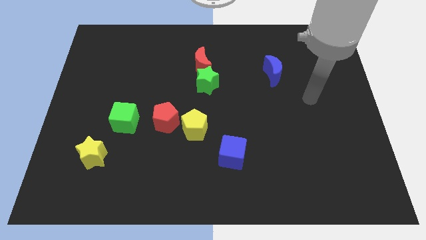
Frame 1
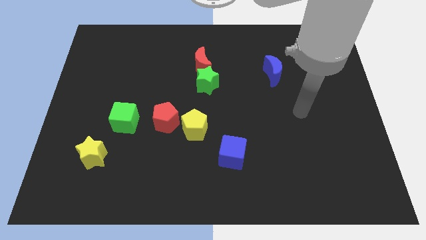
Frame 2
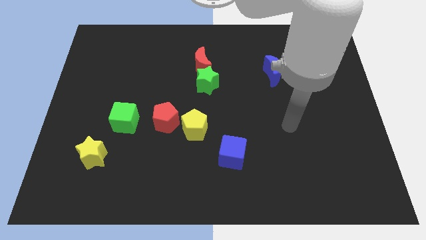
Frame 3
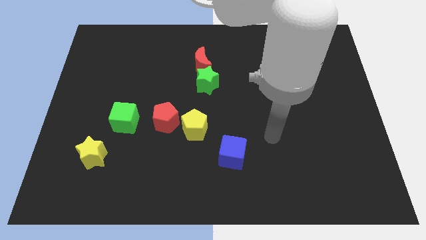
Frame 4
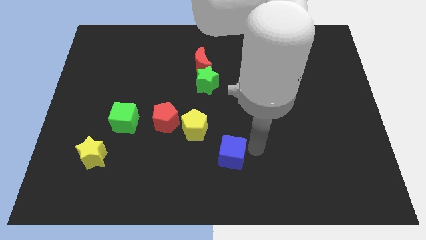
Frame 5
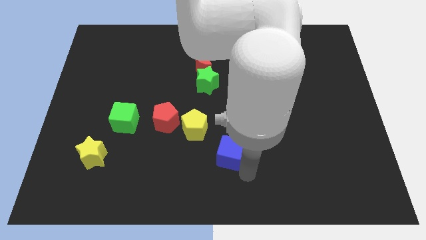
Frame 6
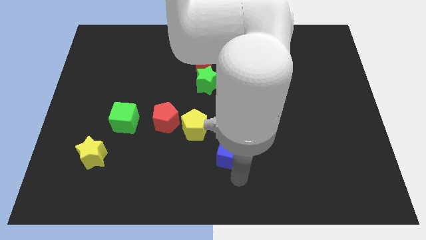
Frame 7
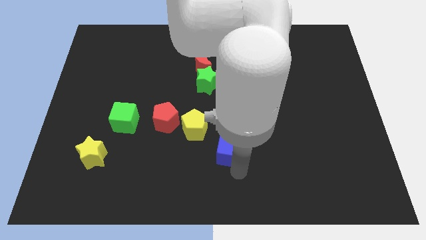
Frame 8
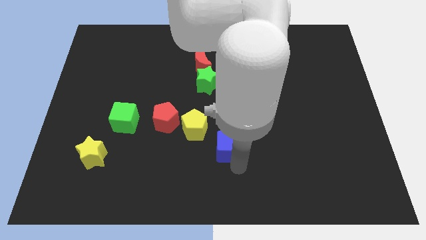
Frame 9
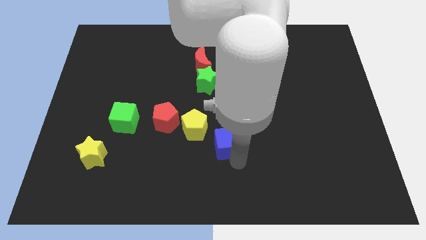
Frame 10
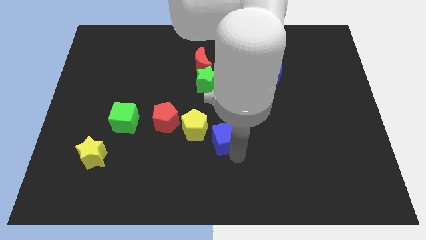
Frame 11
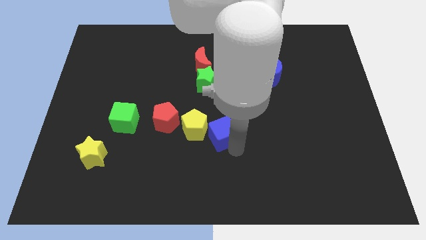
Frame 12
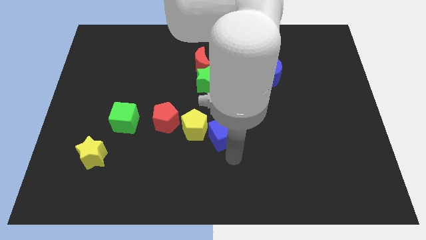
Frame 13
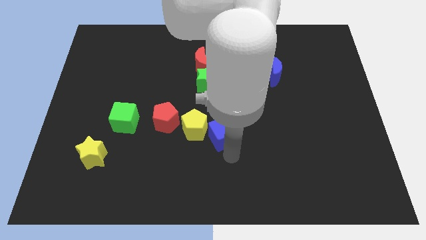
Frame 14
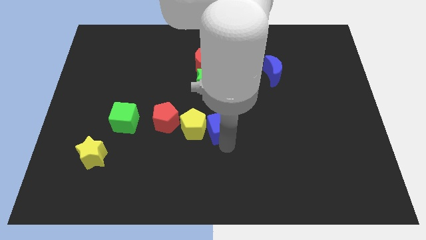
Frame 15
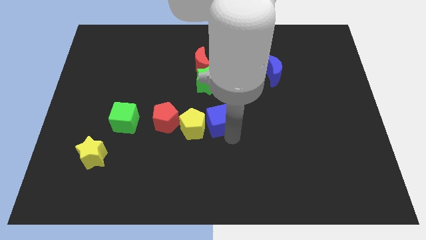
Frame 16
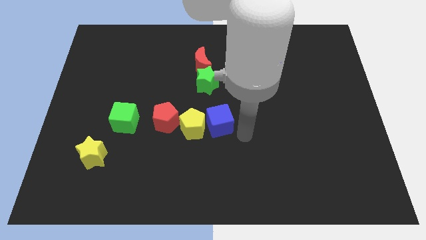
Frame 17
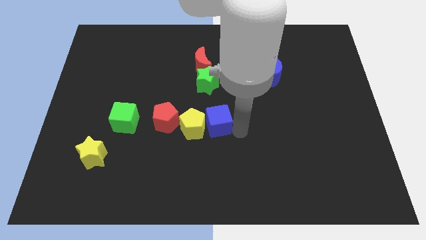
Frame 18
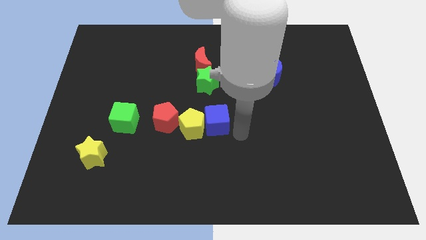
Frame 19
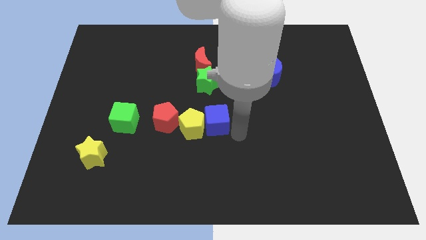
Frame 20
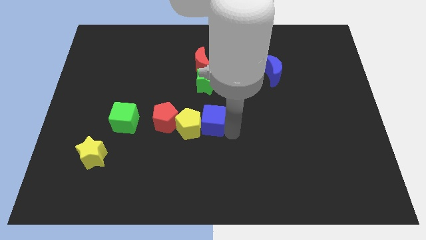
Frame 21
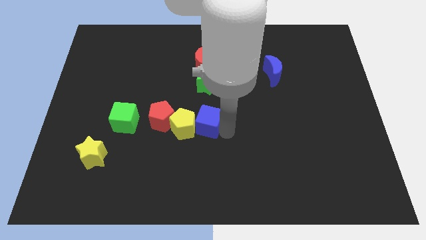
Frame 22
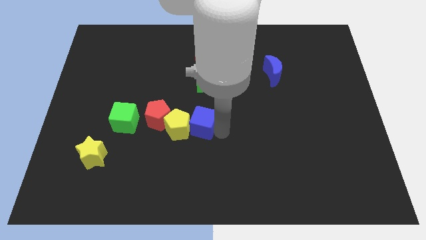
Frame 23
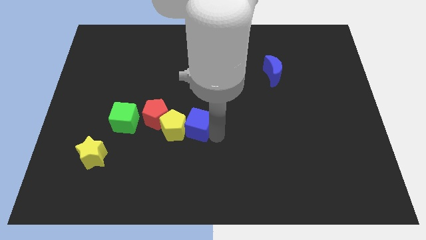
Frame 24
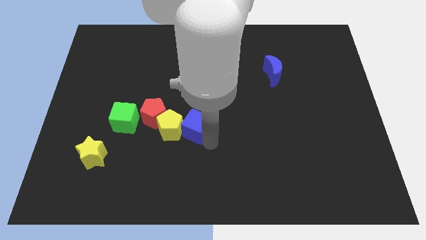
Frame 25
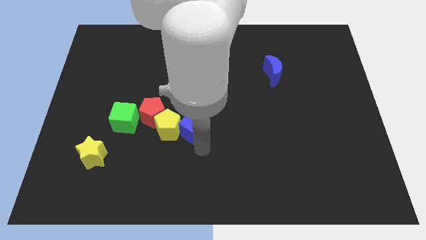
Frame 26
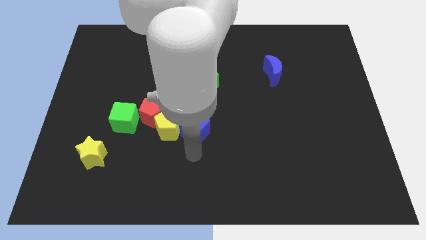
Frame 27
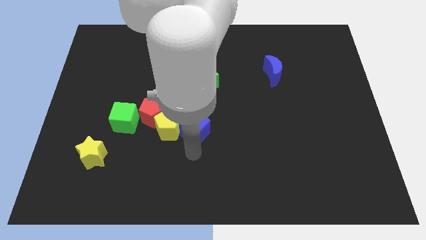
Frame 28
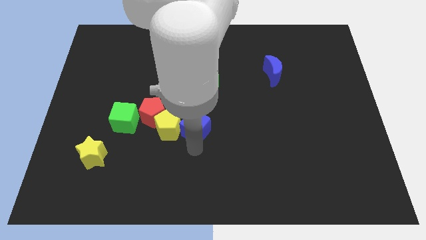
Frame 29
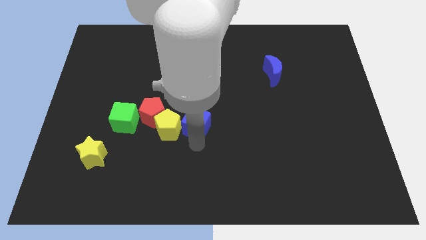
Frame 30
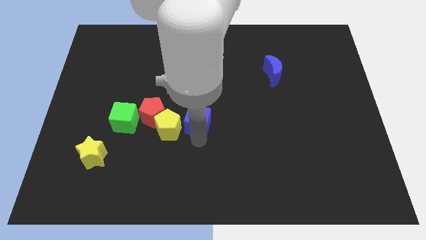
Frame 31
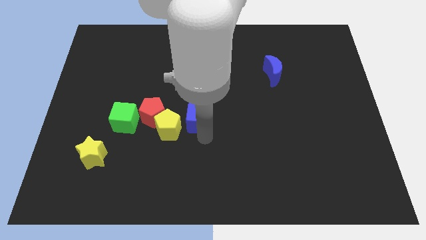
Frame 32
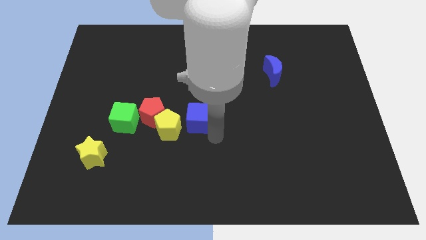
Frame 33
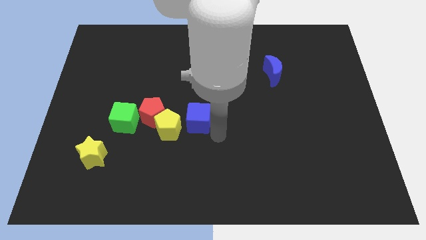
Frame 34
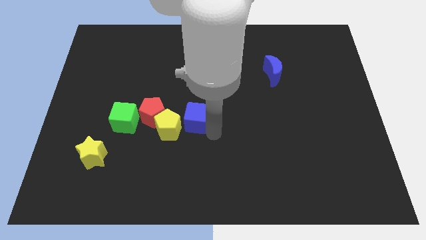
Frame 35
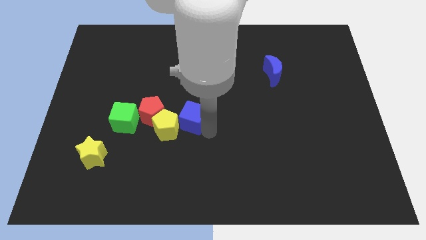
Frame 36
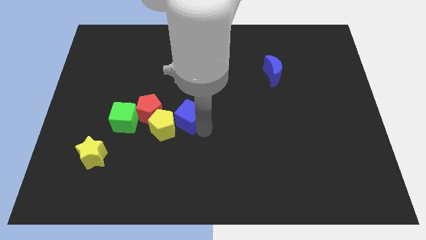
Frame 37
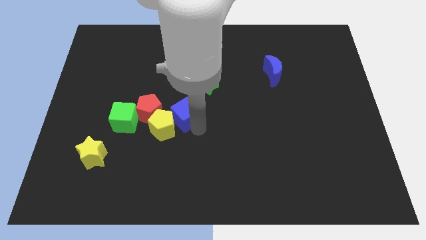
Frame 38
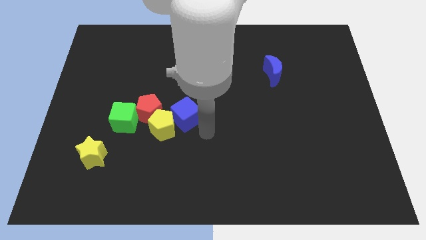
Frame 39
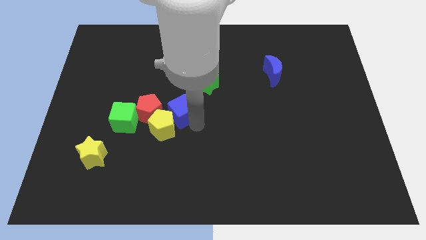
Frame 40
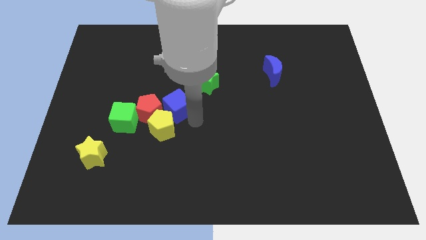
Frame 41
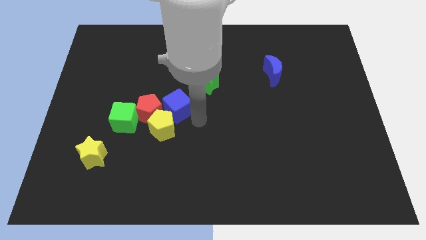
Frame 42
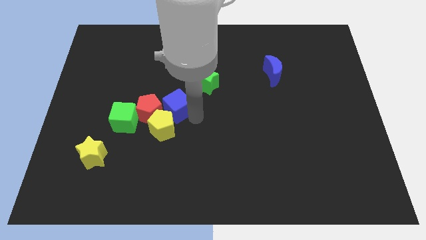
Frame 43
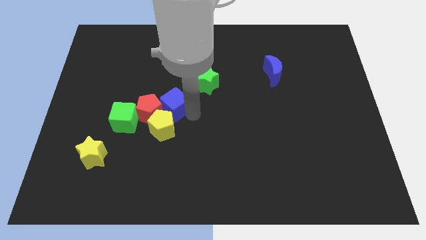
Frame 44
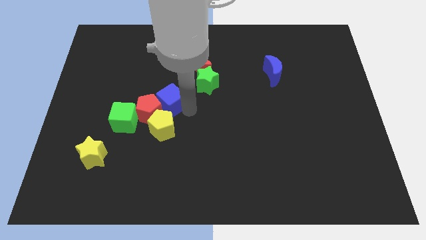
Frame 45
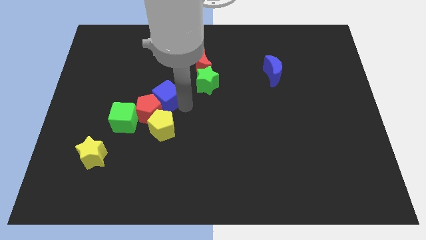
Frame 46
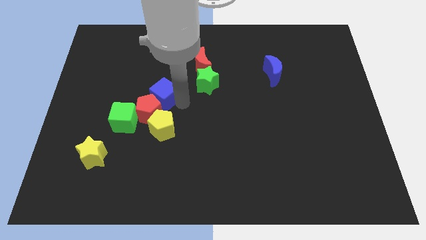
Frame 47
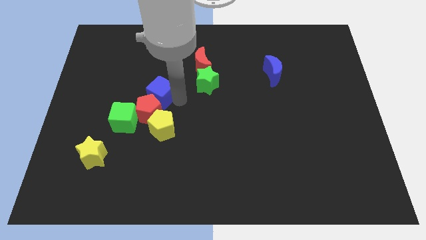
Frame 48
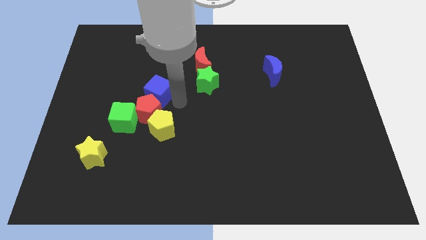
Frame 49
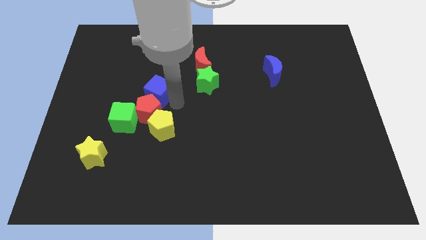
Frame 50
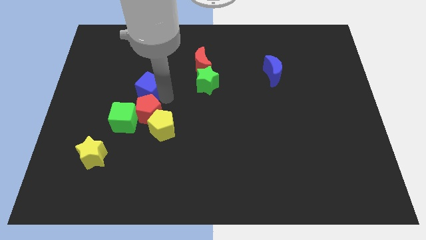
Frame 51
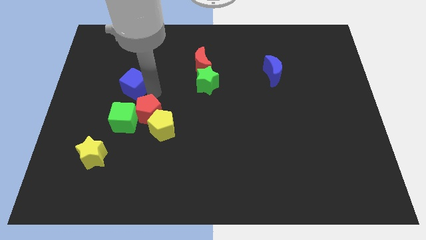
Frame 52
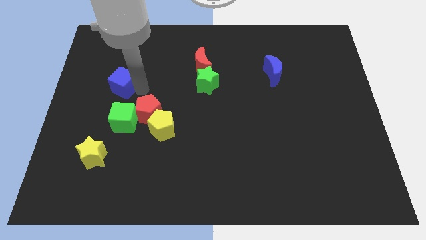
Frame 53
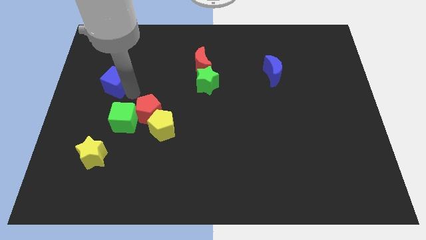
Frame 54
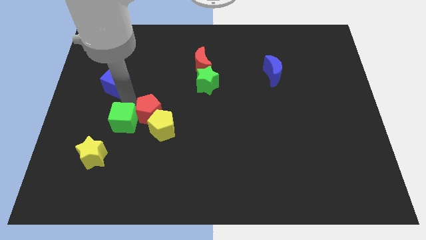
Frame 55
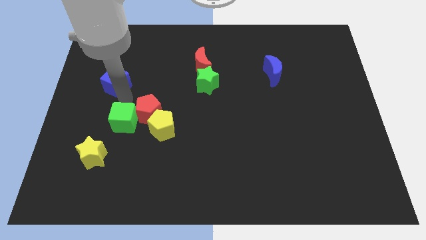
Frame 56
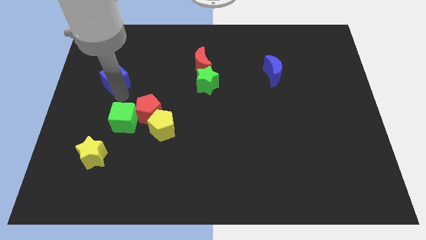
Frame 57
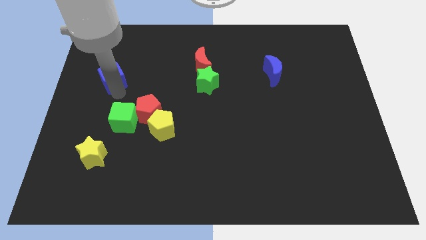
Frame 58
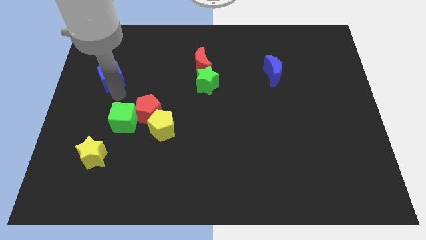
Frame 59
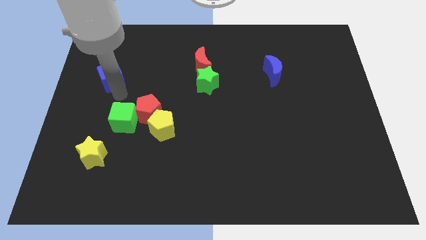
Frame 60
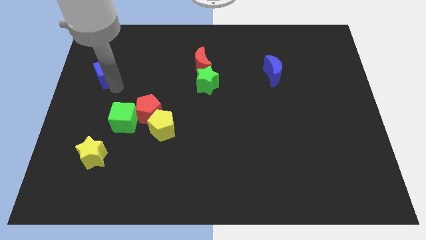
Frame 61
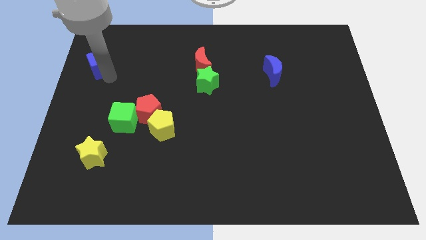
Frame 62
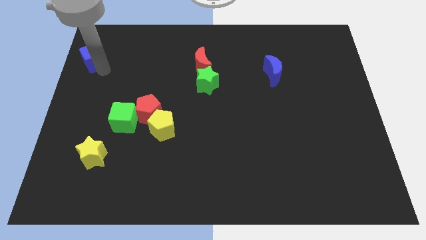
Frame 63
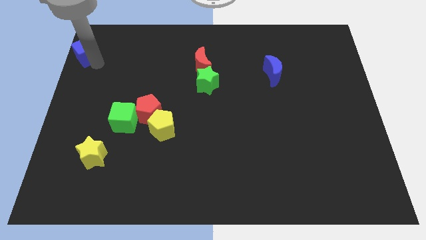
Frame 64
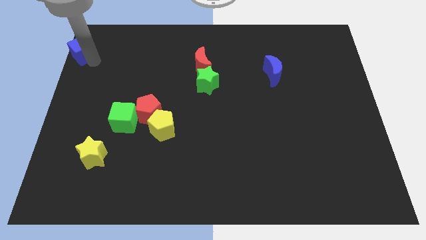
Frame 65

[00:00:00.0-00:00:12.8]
move the blue cube to the top left of the board

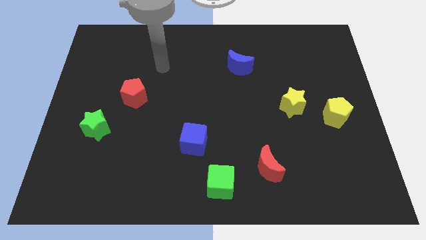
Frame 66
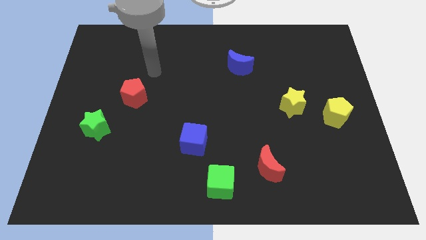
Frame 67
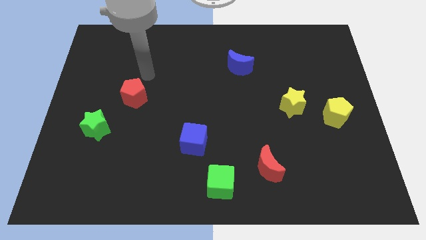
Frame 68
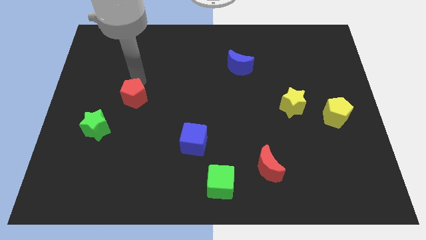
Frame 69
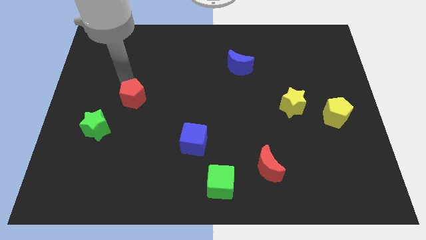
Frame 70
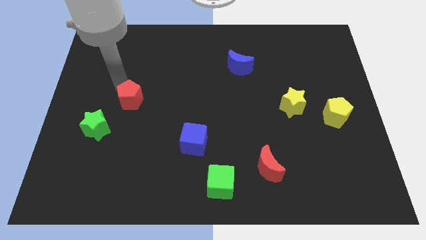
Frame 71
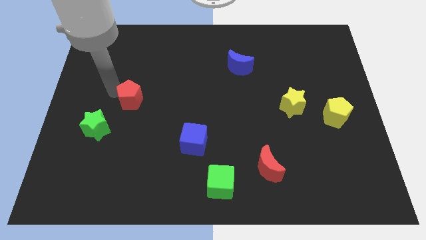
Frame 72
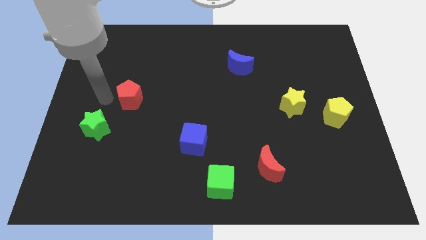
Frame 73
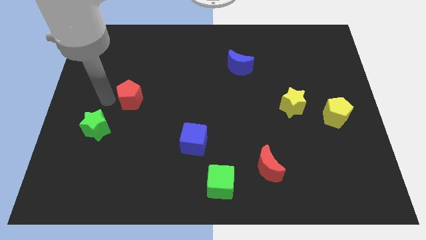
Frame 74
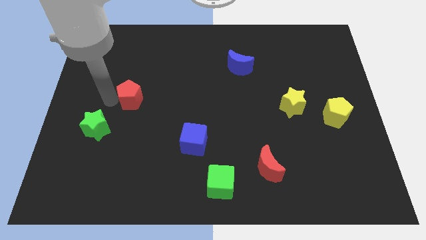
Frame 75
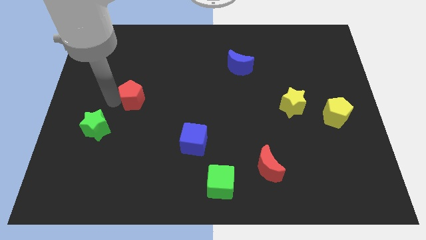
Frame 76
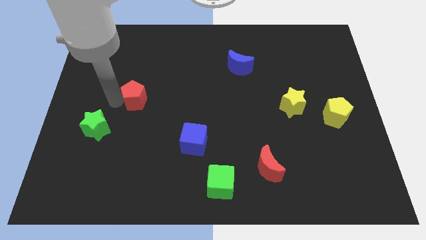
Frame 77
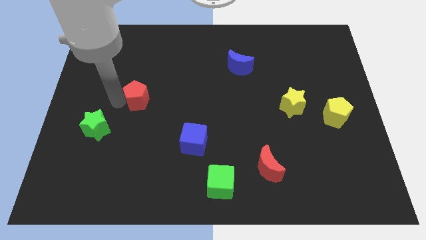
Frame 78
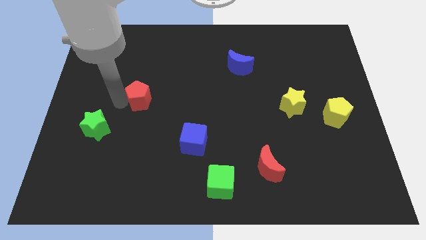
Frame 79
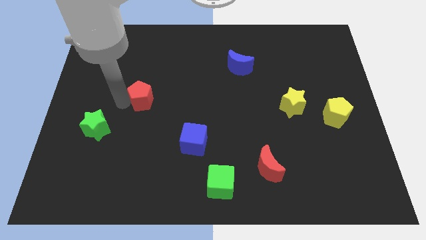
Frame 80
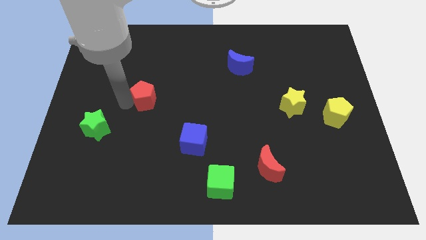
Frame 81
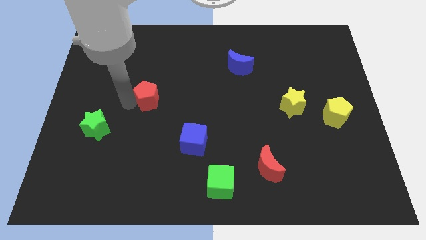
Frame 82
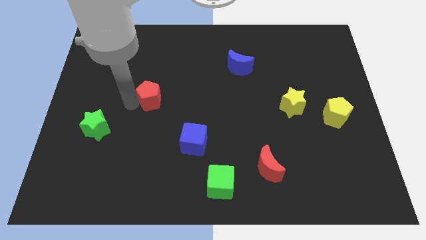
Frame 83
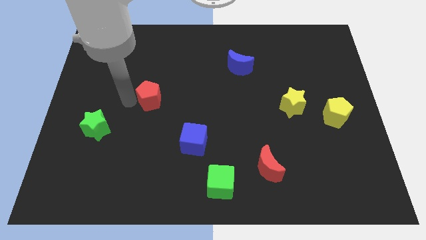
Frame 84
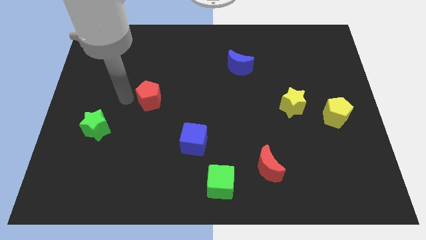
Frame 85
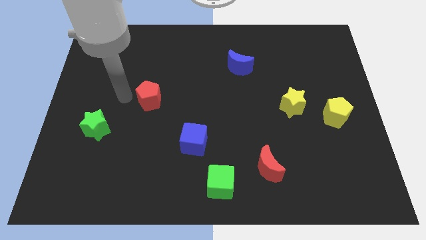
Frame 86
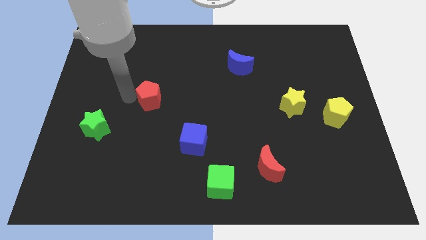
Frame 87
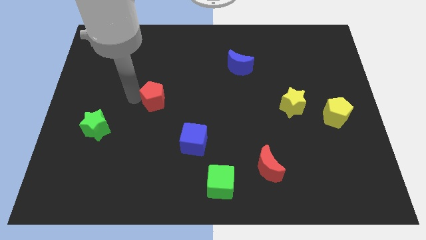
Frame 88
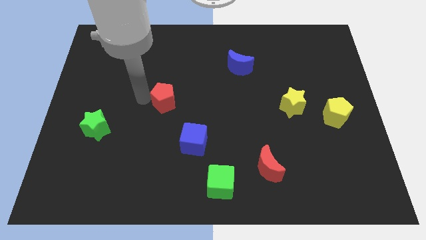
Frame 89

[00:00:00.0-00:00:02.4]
push the red pentagon to the center
